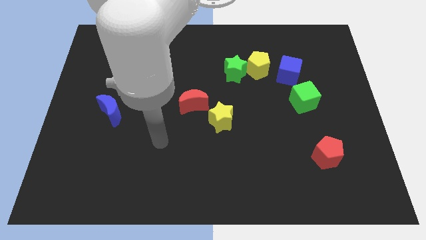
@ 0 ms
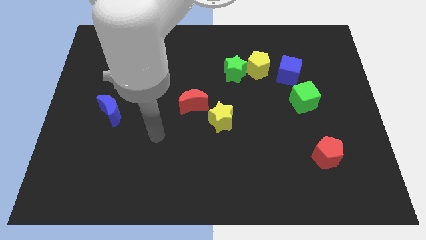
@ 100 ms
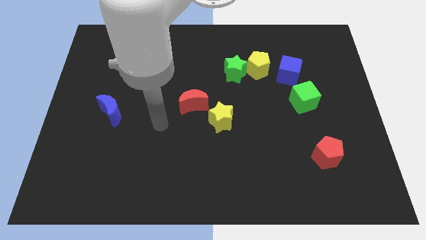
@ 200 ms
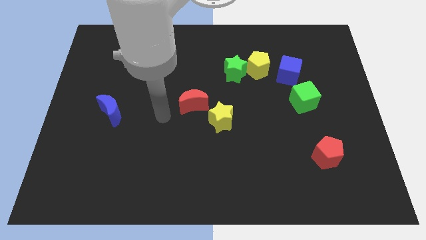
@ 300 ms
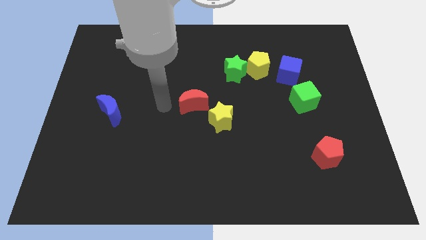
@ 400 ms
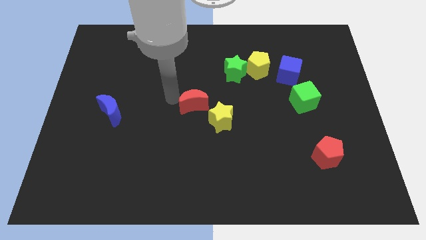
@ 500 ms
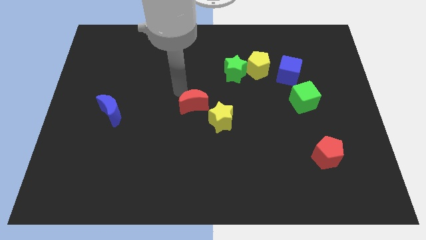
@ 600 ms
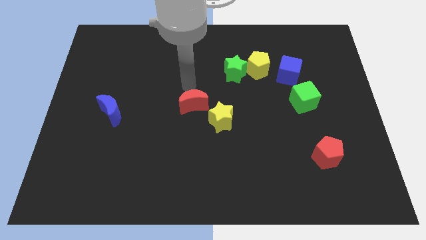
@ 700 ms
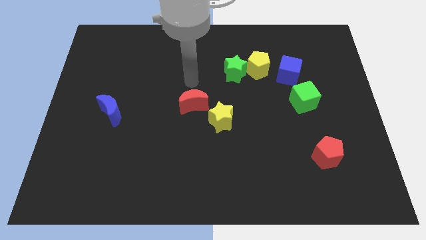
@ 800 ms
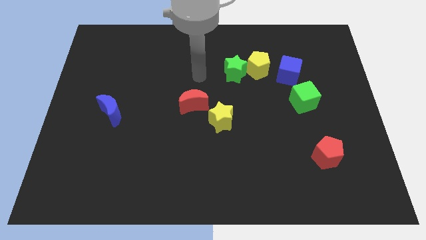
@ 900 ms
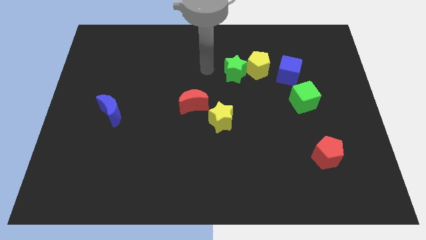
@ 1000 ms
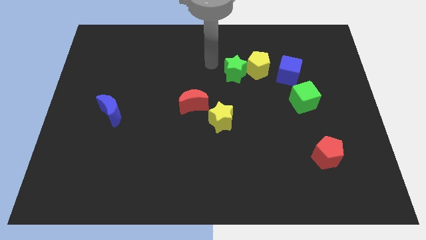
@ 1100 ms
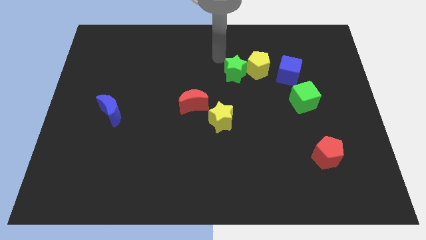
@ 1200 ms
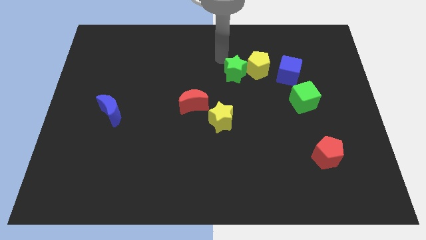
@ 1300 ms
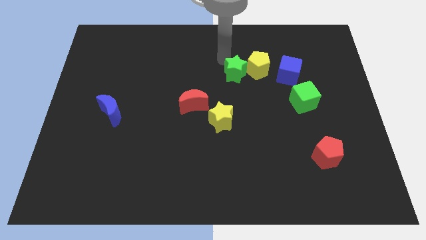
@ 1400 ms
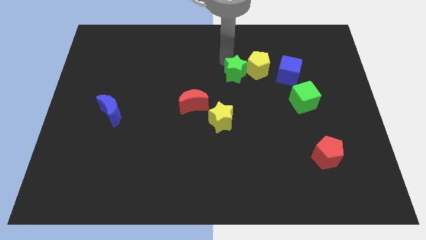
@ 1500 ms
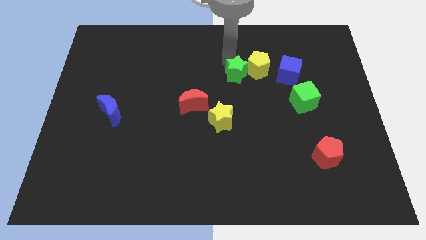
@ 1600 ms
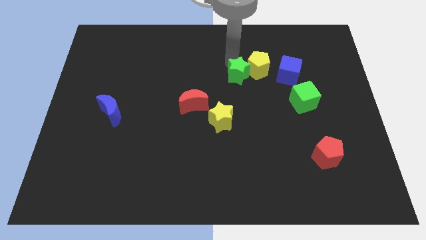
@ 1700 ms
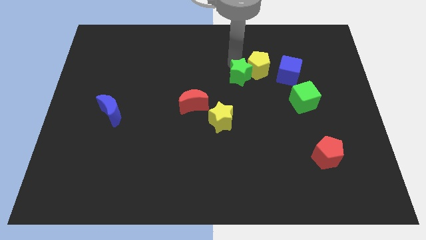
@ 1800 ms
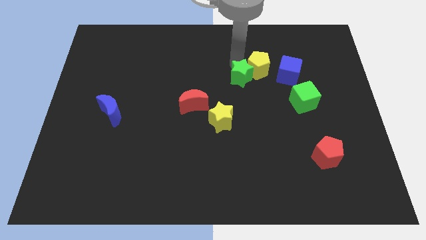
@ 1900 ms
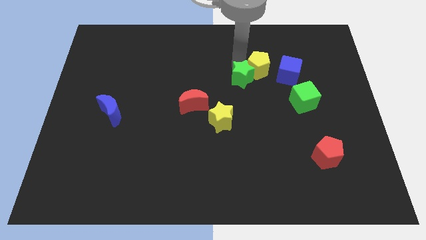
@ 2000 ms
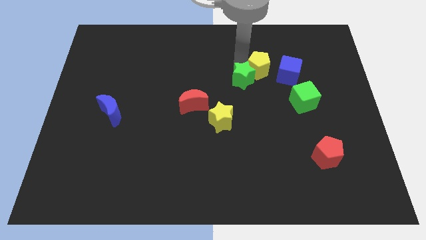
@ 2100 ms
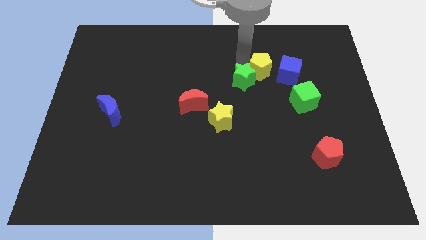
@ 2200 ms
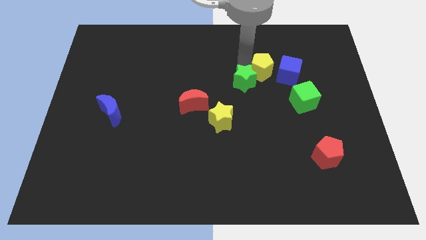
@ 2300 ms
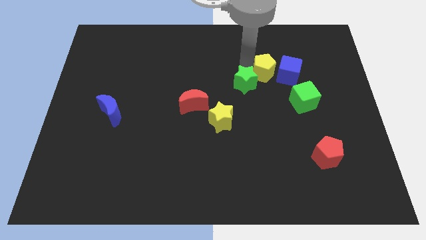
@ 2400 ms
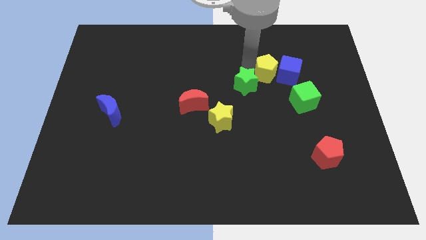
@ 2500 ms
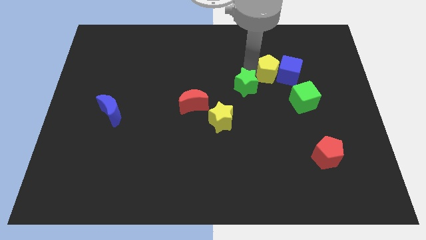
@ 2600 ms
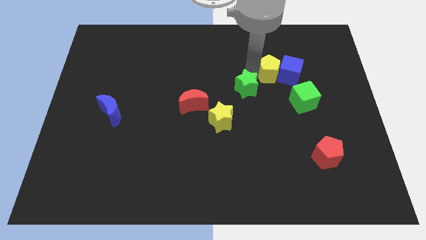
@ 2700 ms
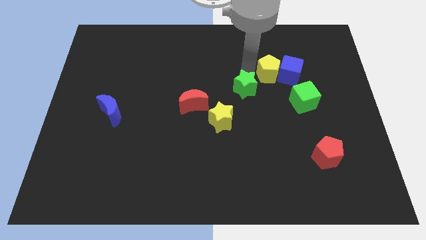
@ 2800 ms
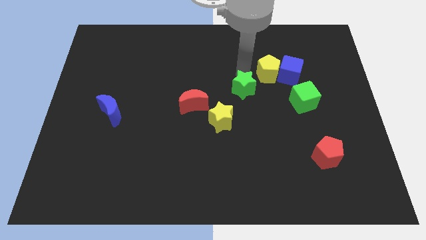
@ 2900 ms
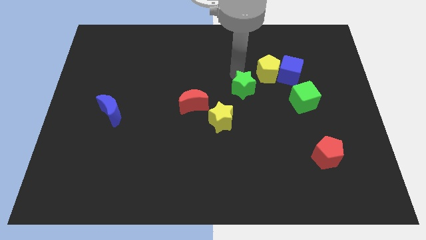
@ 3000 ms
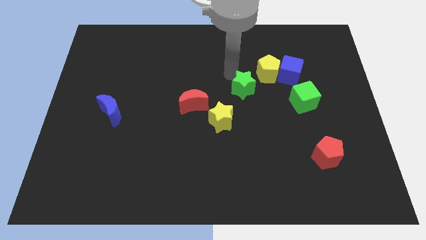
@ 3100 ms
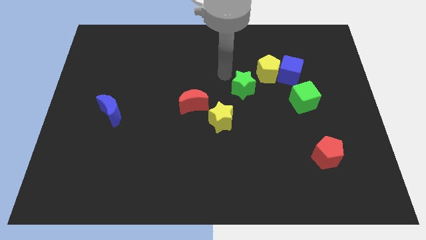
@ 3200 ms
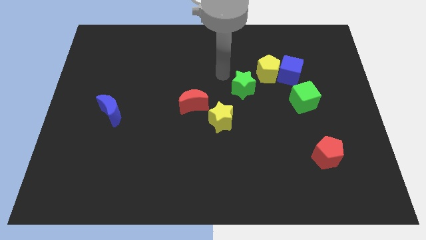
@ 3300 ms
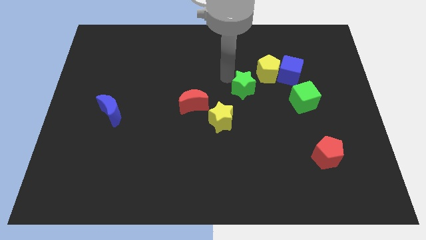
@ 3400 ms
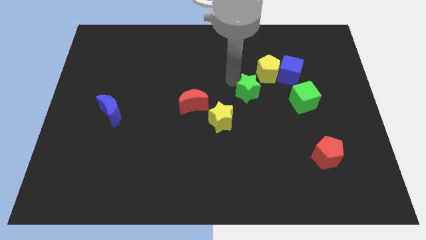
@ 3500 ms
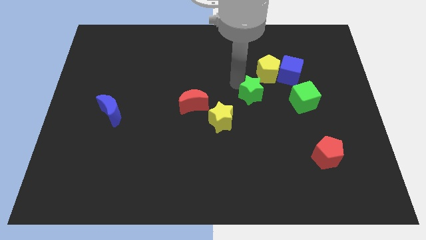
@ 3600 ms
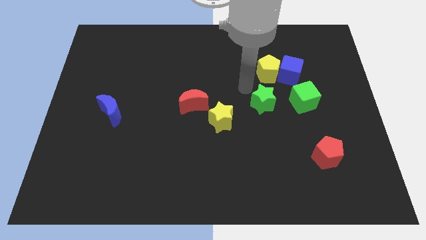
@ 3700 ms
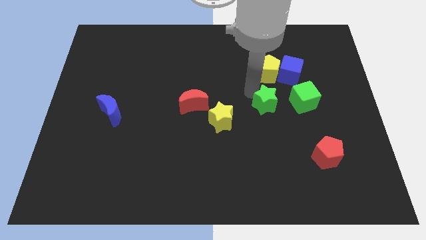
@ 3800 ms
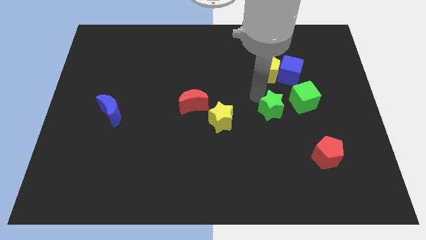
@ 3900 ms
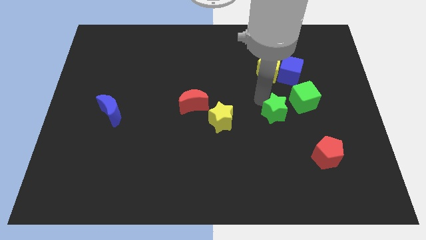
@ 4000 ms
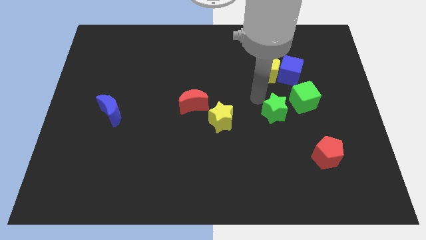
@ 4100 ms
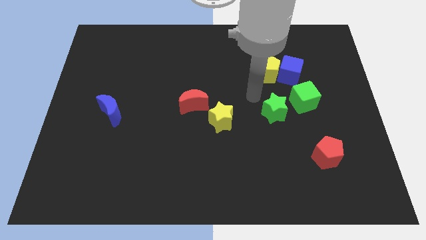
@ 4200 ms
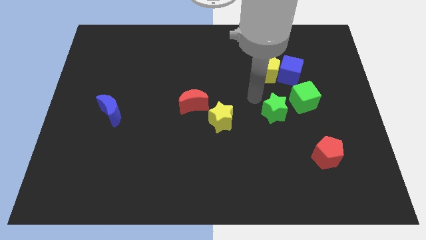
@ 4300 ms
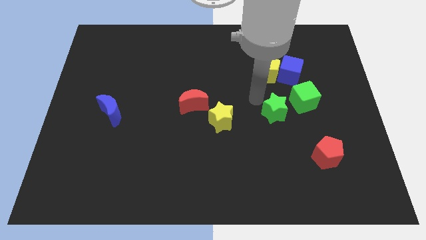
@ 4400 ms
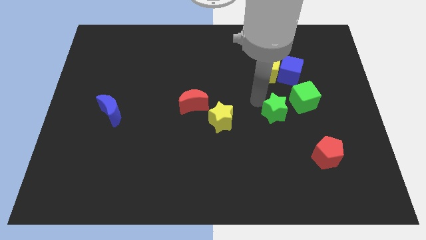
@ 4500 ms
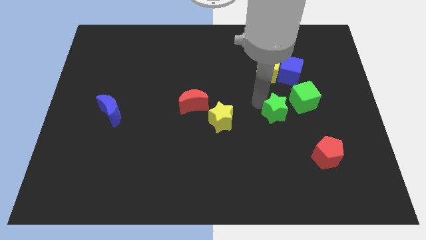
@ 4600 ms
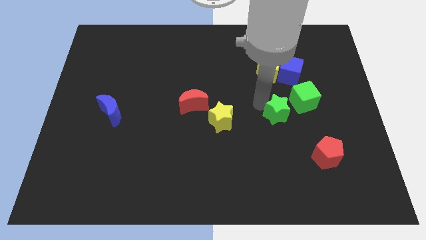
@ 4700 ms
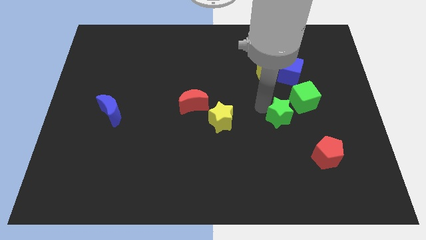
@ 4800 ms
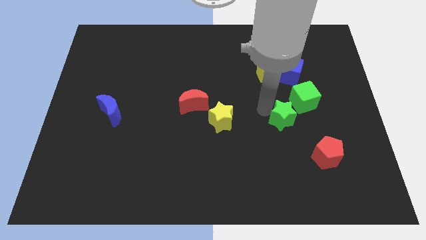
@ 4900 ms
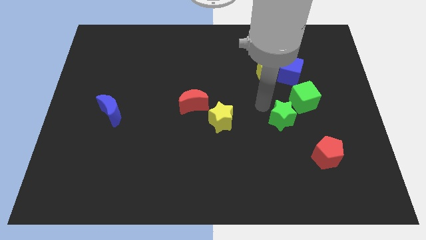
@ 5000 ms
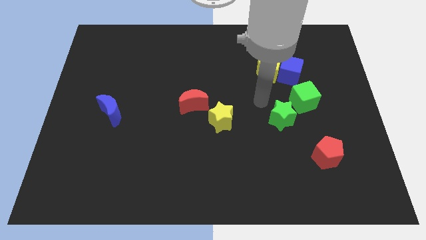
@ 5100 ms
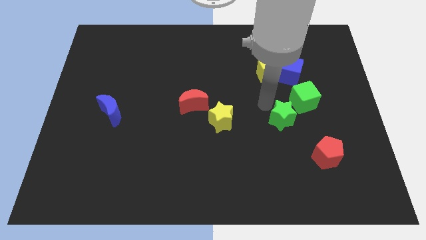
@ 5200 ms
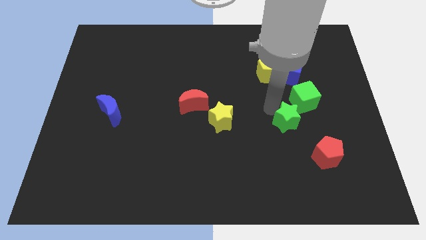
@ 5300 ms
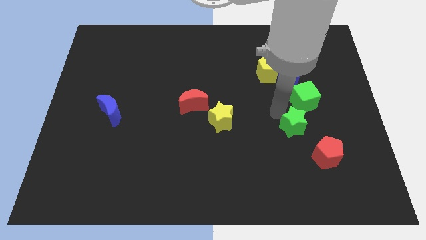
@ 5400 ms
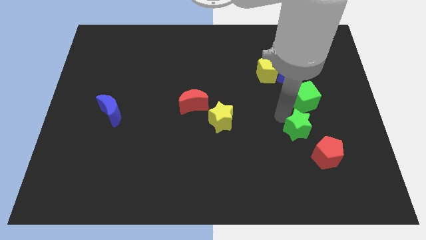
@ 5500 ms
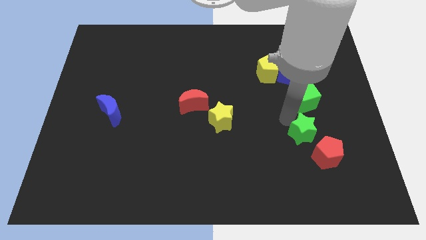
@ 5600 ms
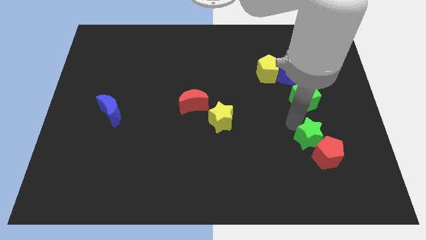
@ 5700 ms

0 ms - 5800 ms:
put the green star next to the red pentagon

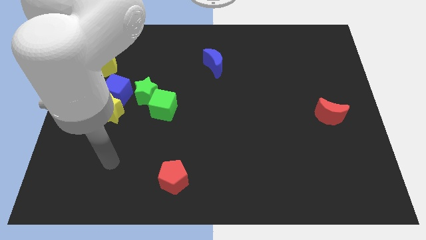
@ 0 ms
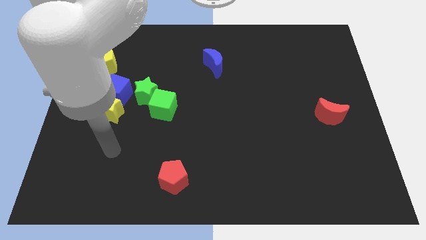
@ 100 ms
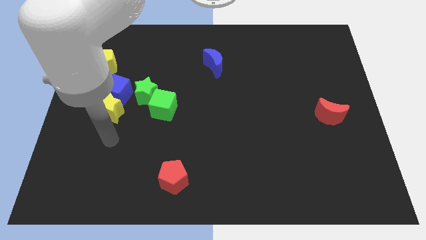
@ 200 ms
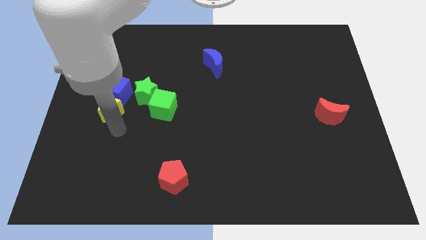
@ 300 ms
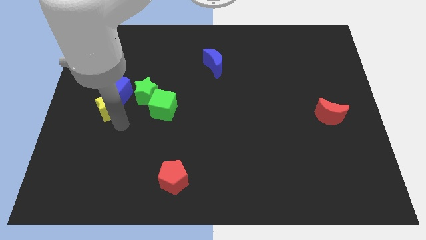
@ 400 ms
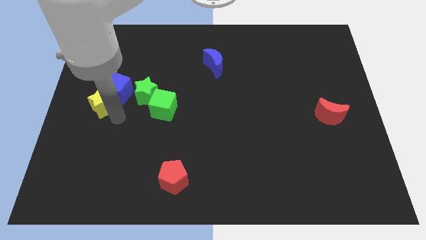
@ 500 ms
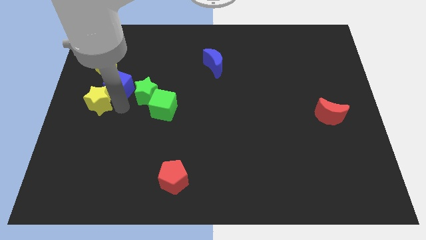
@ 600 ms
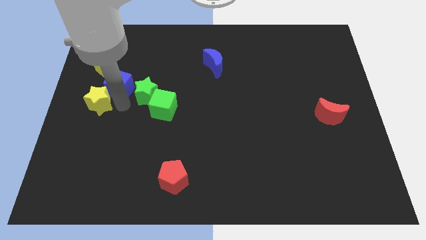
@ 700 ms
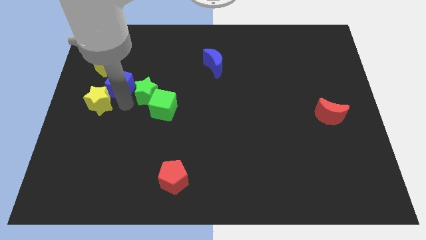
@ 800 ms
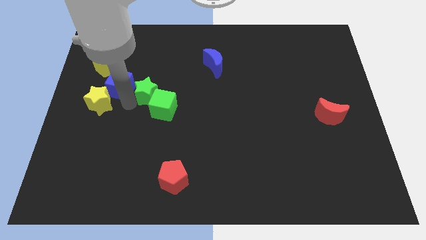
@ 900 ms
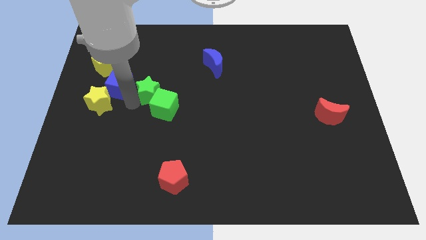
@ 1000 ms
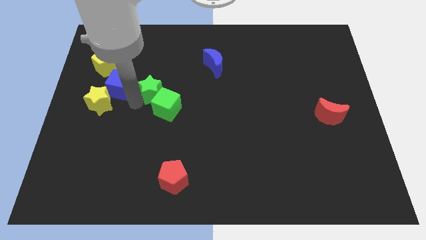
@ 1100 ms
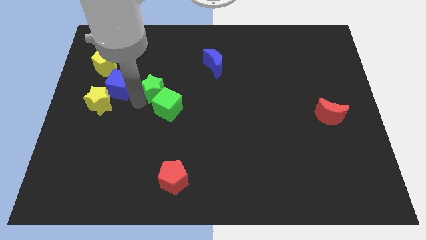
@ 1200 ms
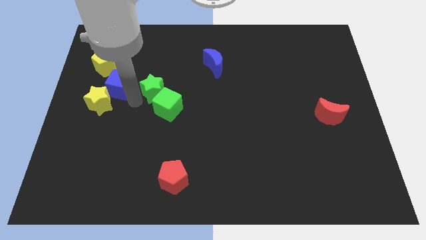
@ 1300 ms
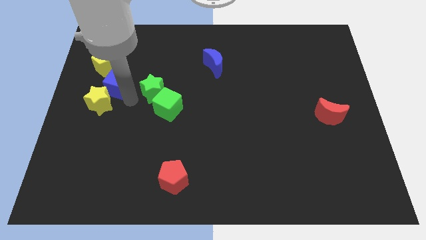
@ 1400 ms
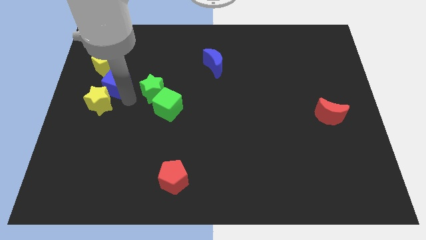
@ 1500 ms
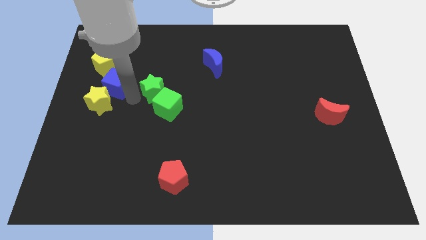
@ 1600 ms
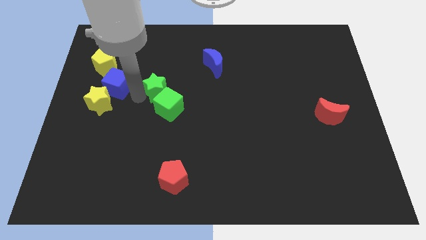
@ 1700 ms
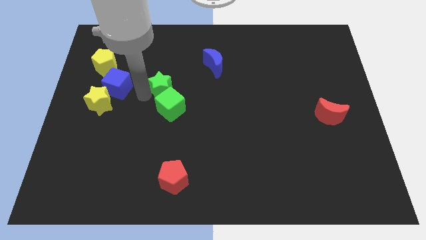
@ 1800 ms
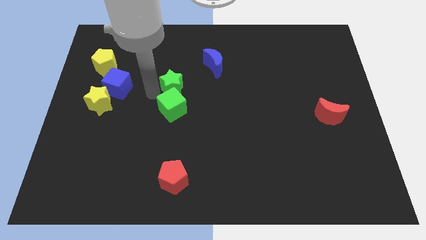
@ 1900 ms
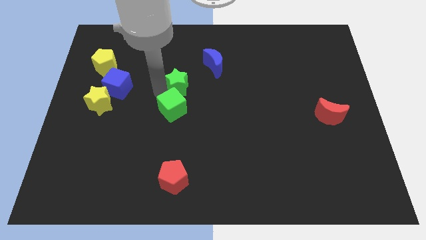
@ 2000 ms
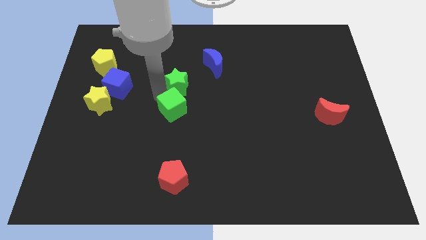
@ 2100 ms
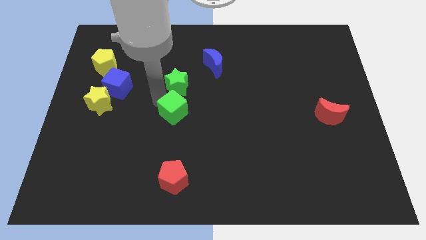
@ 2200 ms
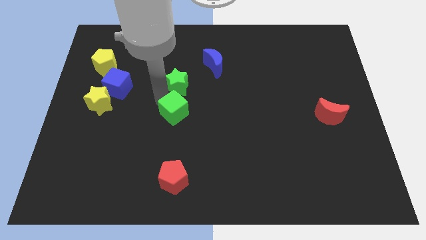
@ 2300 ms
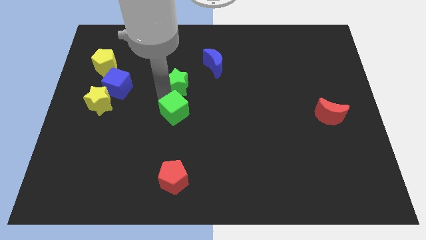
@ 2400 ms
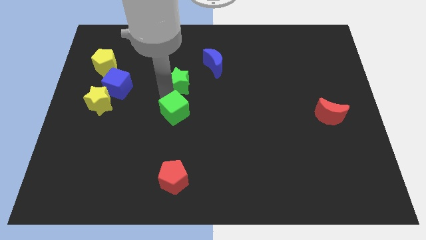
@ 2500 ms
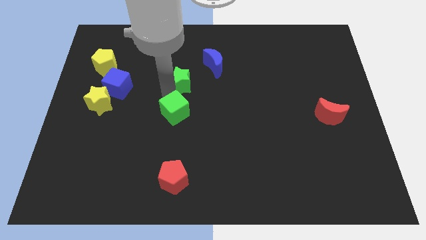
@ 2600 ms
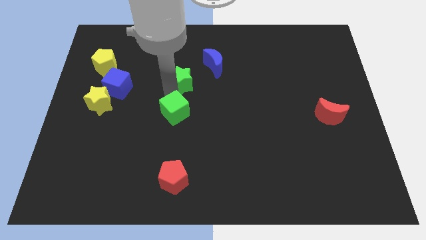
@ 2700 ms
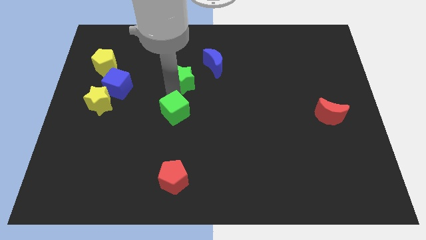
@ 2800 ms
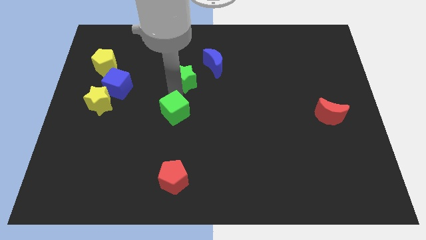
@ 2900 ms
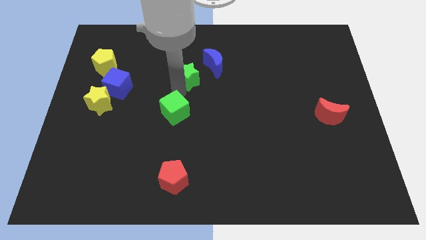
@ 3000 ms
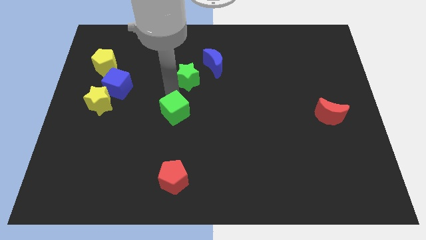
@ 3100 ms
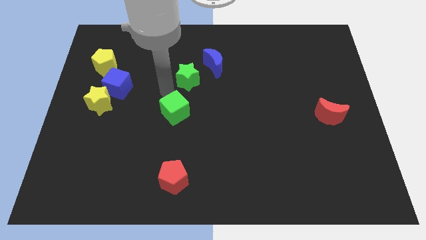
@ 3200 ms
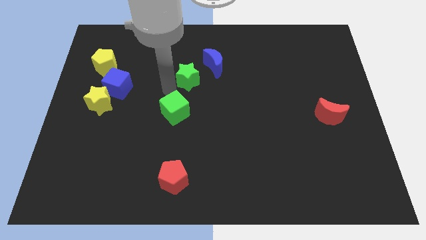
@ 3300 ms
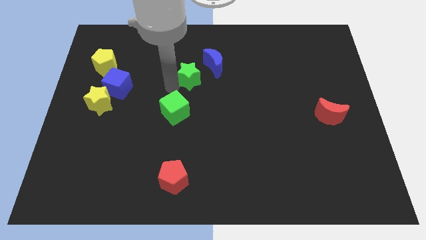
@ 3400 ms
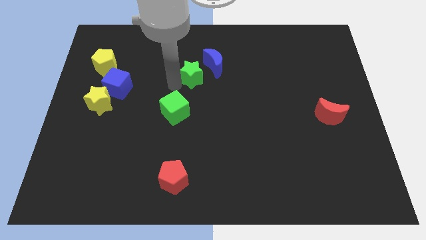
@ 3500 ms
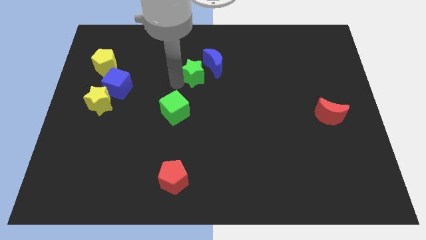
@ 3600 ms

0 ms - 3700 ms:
move the green star next to the blue moon
